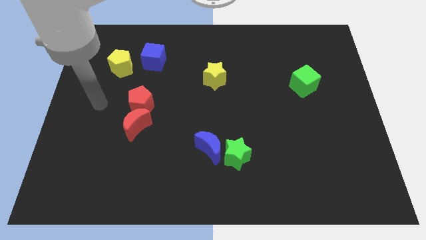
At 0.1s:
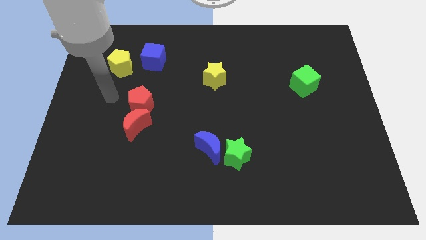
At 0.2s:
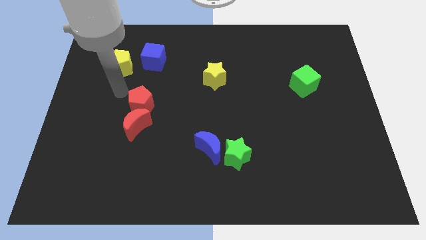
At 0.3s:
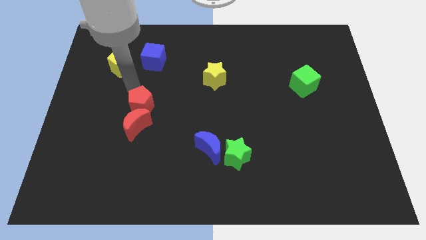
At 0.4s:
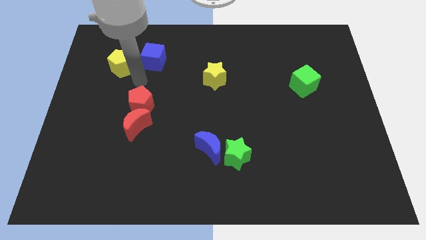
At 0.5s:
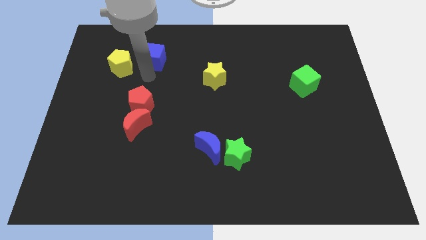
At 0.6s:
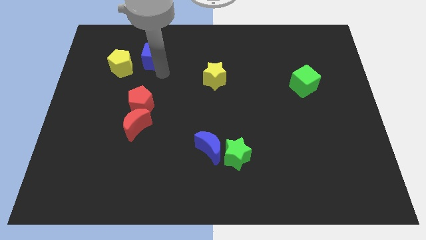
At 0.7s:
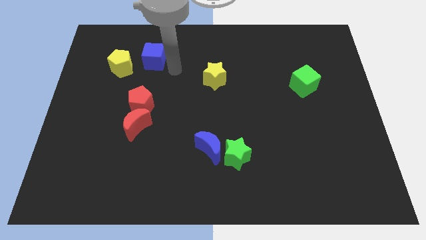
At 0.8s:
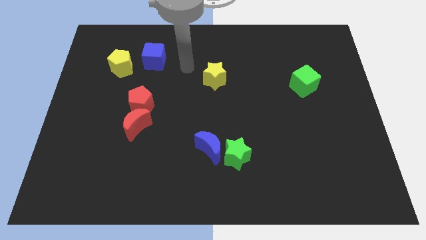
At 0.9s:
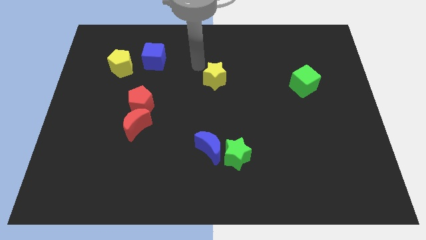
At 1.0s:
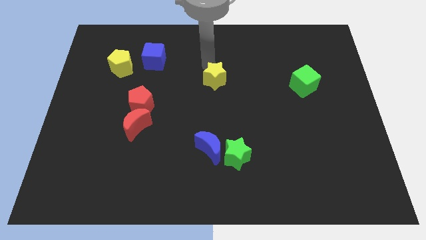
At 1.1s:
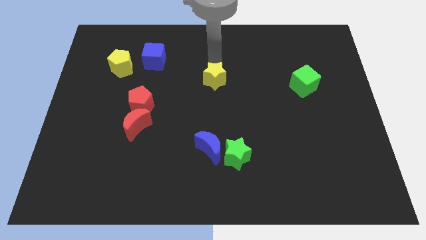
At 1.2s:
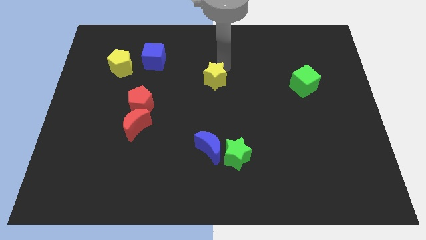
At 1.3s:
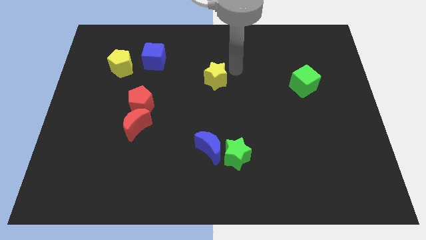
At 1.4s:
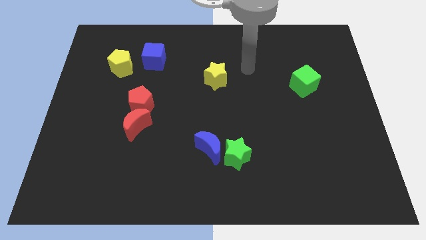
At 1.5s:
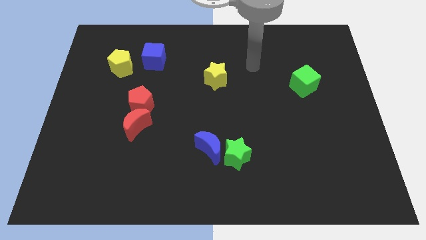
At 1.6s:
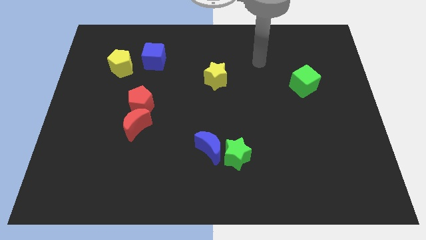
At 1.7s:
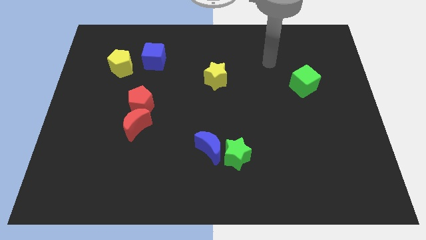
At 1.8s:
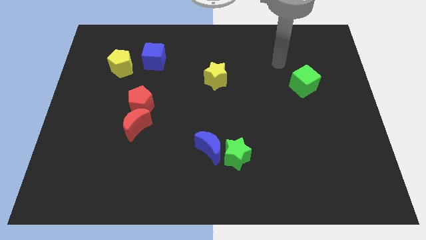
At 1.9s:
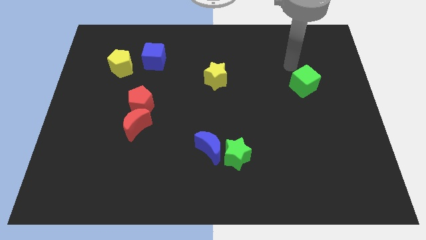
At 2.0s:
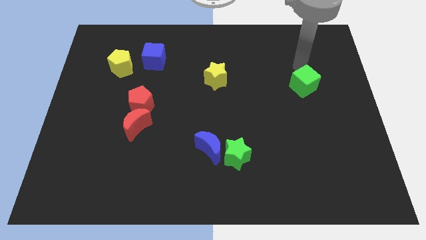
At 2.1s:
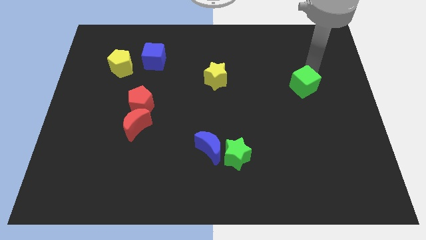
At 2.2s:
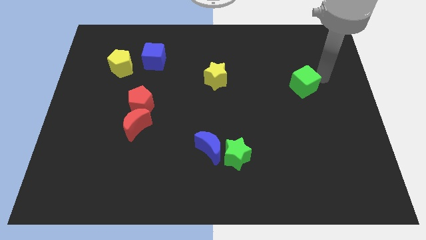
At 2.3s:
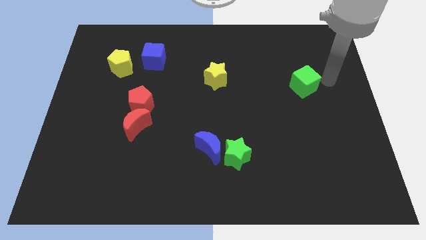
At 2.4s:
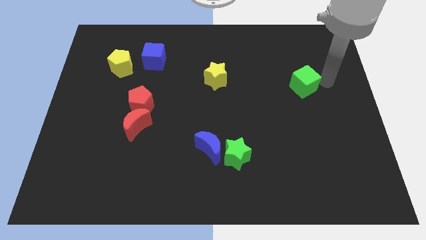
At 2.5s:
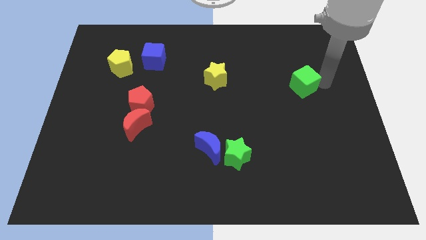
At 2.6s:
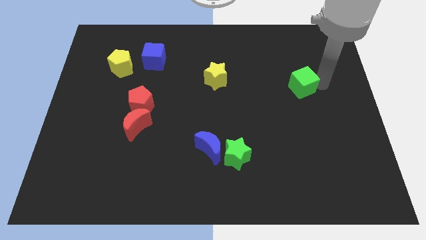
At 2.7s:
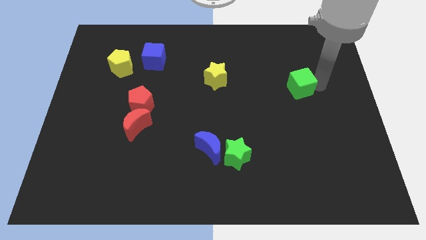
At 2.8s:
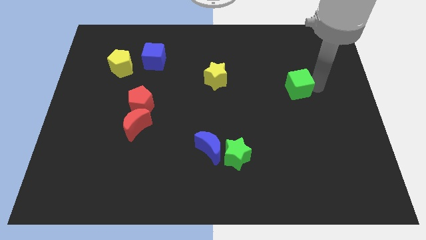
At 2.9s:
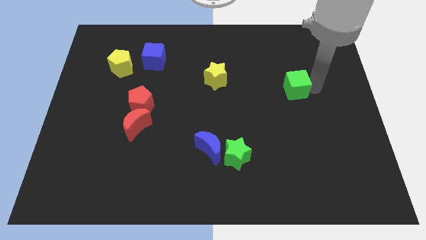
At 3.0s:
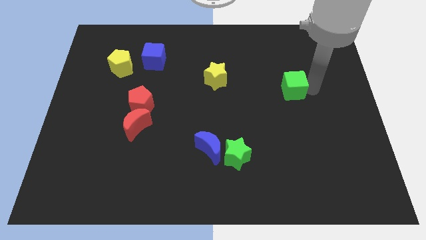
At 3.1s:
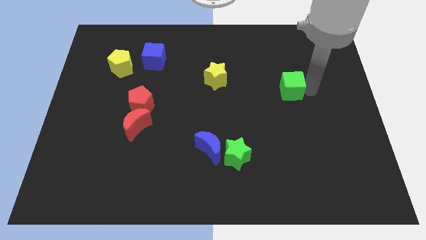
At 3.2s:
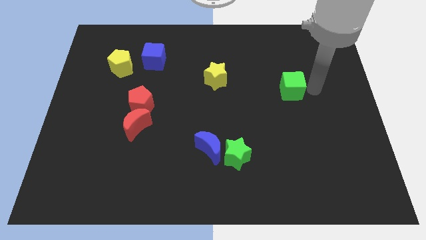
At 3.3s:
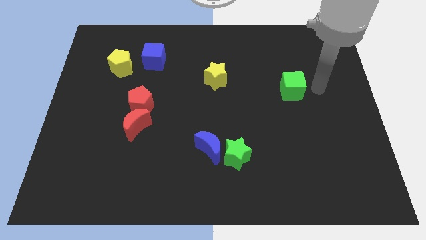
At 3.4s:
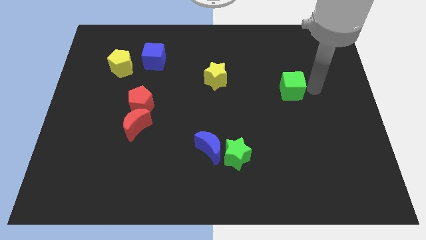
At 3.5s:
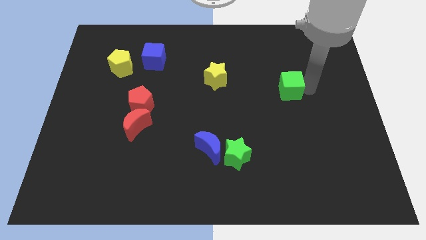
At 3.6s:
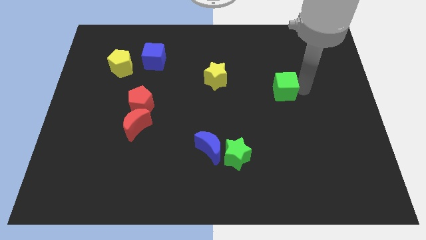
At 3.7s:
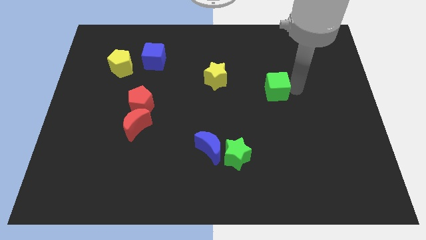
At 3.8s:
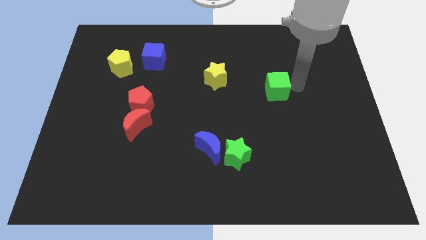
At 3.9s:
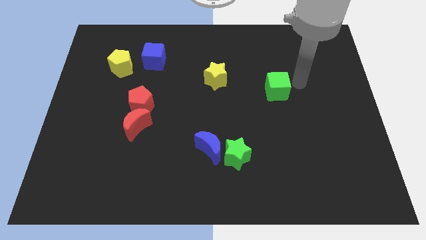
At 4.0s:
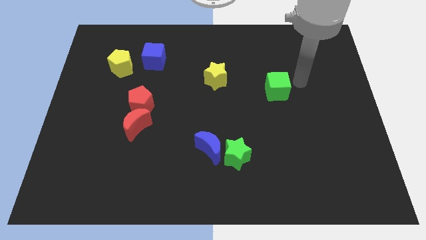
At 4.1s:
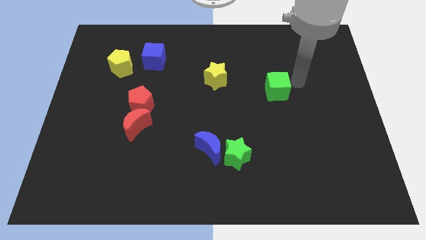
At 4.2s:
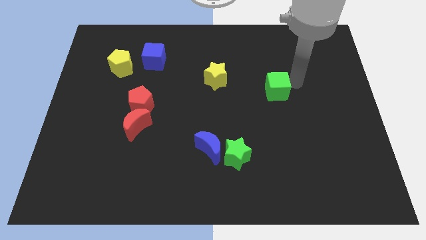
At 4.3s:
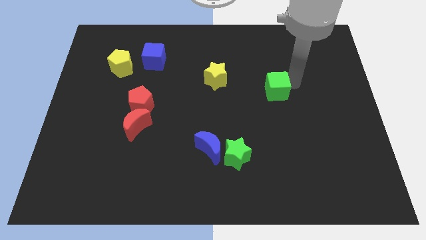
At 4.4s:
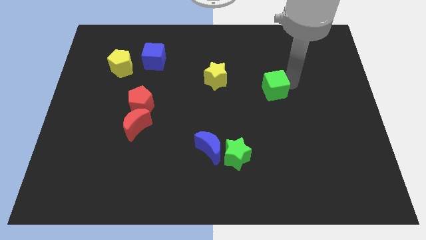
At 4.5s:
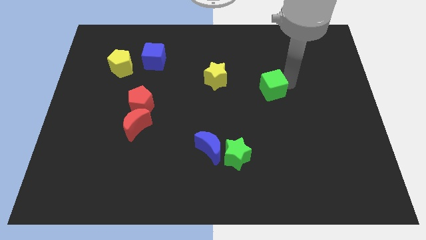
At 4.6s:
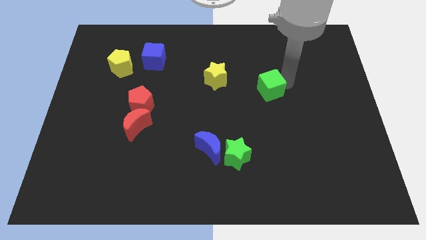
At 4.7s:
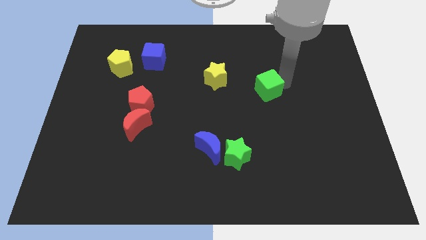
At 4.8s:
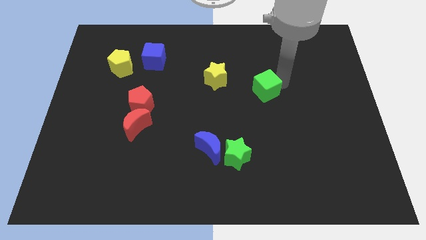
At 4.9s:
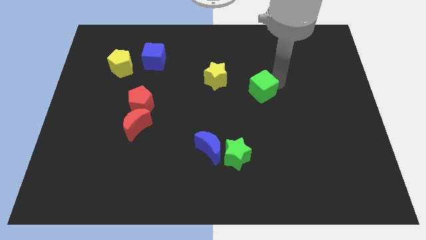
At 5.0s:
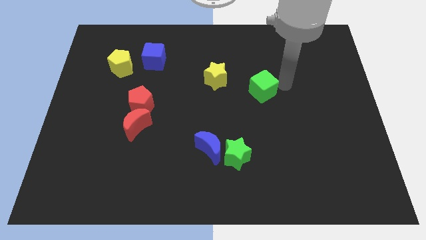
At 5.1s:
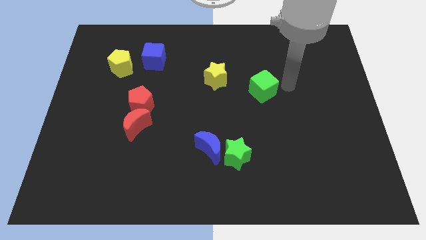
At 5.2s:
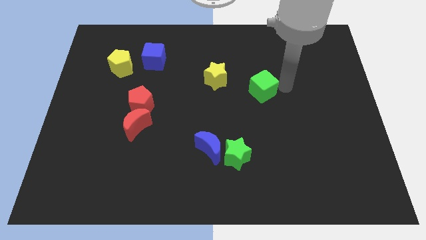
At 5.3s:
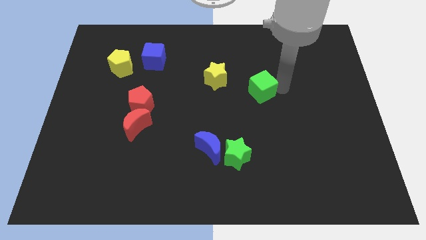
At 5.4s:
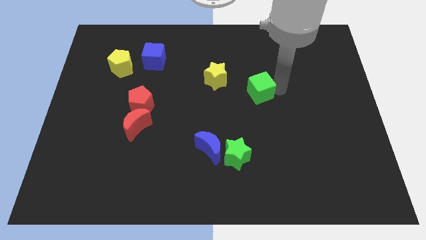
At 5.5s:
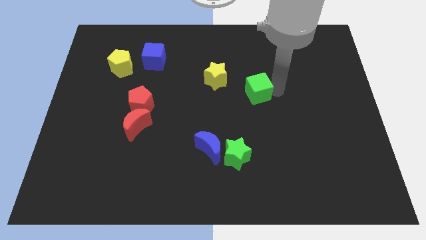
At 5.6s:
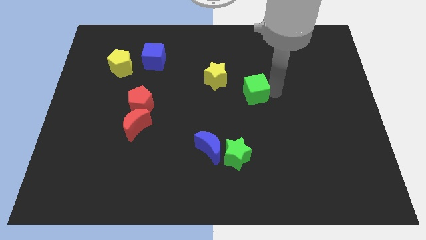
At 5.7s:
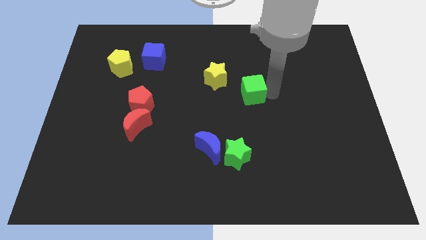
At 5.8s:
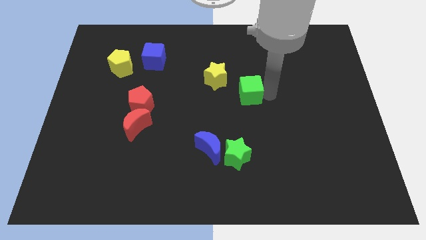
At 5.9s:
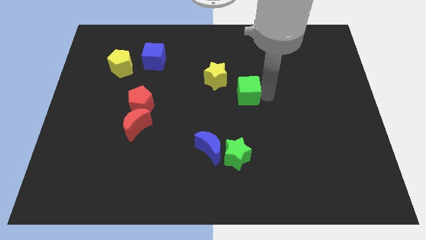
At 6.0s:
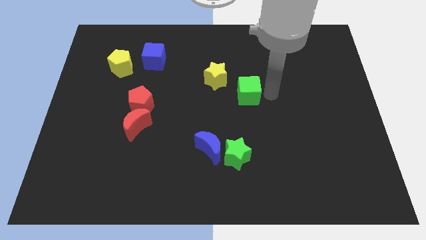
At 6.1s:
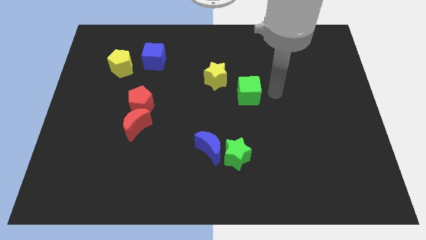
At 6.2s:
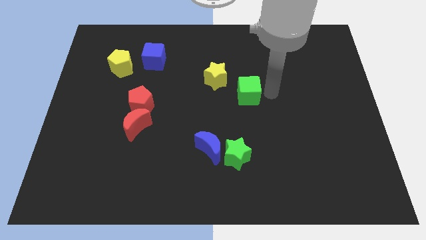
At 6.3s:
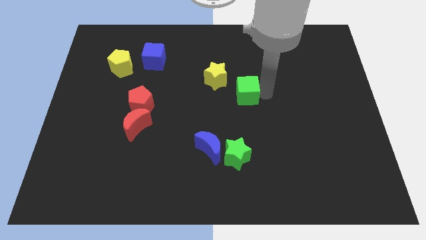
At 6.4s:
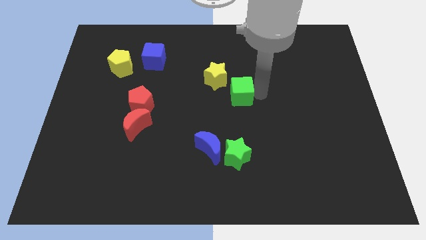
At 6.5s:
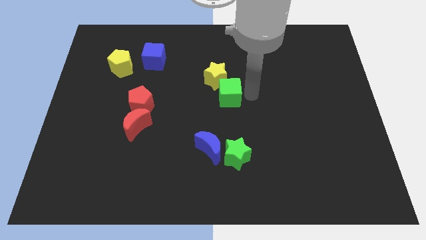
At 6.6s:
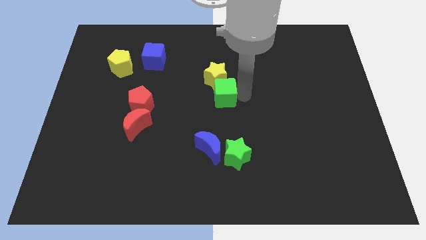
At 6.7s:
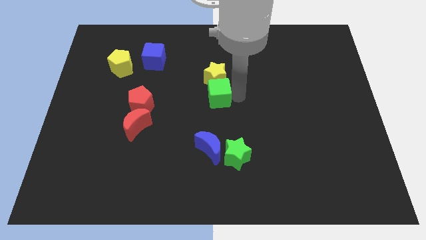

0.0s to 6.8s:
move the green cube left

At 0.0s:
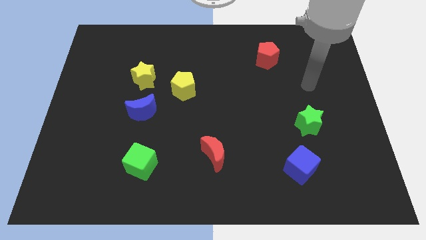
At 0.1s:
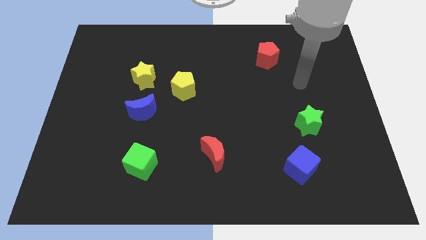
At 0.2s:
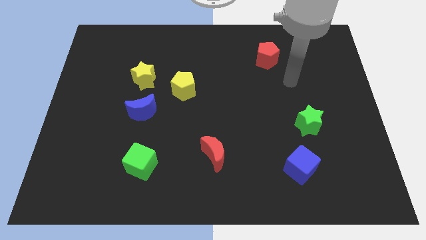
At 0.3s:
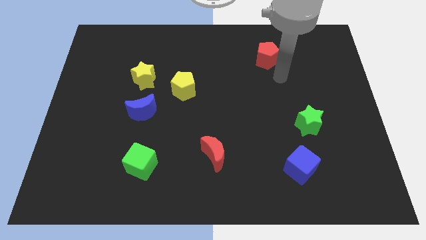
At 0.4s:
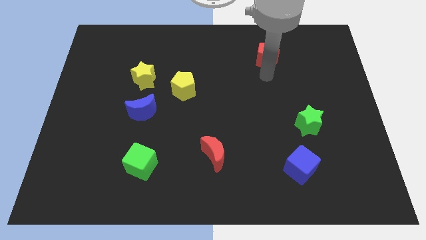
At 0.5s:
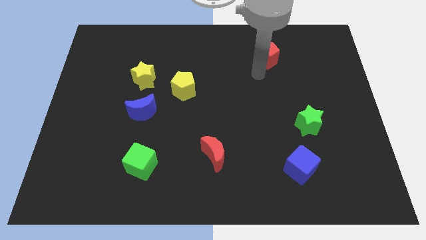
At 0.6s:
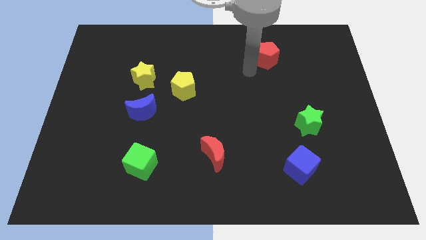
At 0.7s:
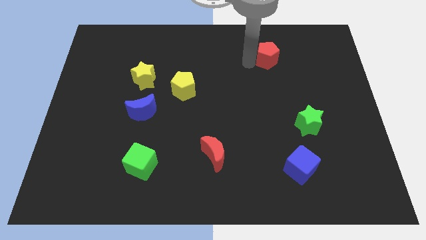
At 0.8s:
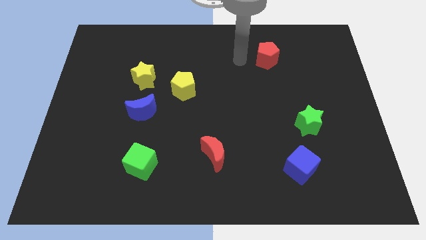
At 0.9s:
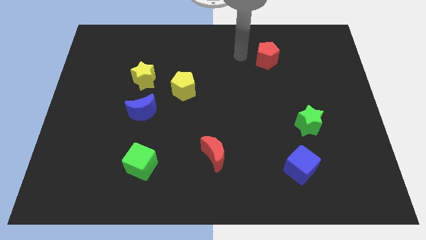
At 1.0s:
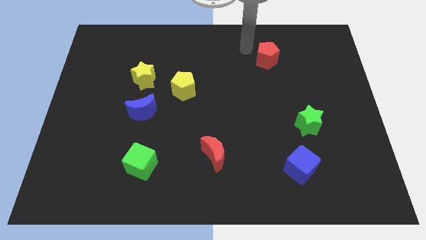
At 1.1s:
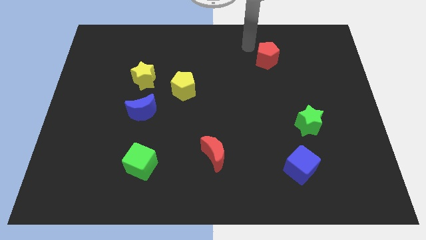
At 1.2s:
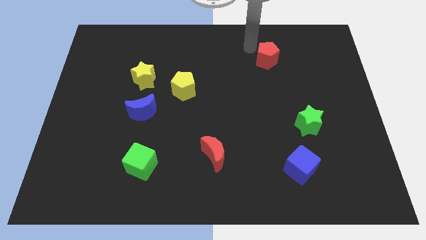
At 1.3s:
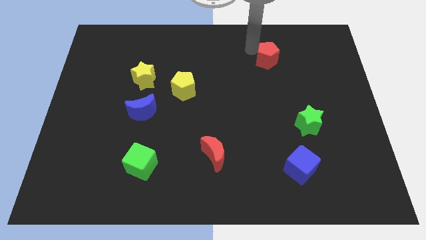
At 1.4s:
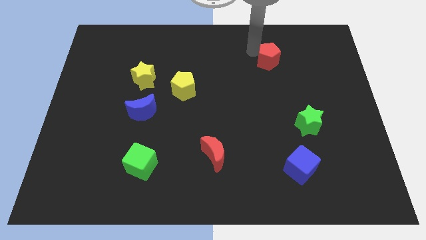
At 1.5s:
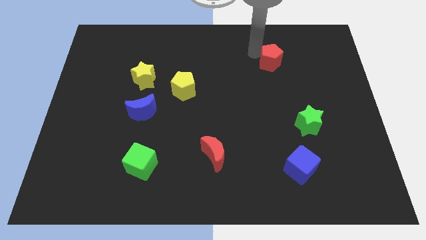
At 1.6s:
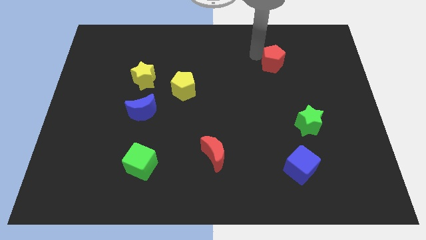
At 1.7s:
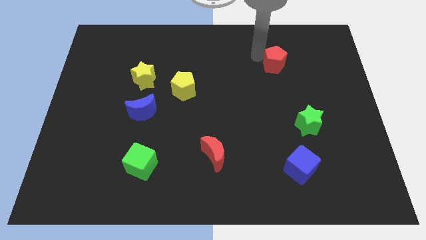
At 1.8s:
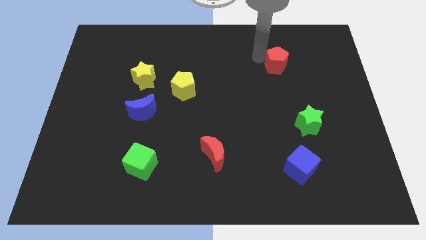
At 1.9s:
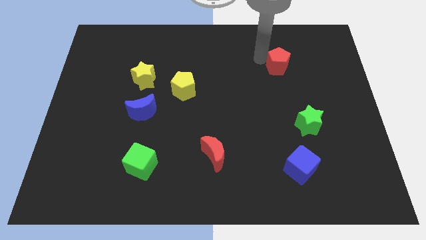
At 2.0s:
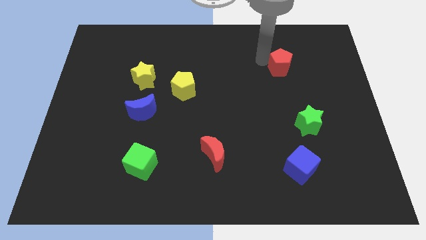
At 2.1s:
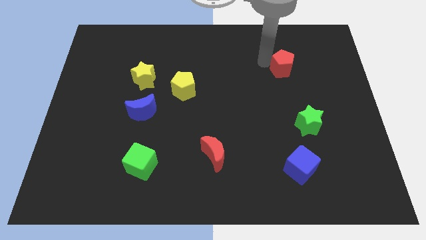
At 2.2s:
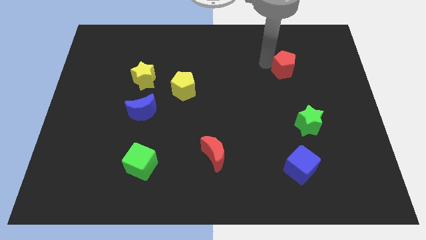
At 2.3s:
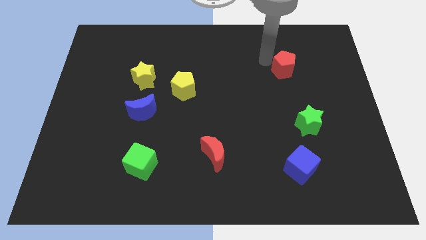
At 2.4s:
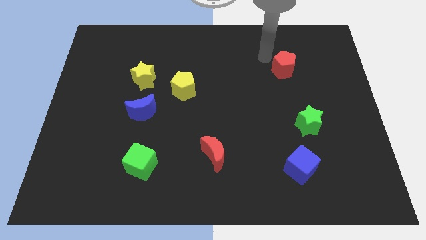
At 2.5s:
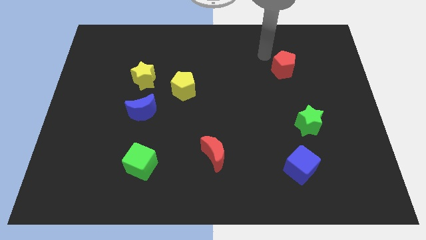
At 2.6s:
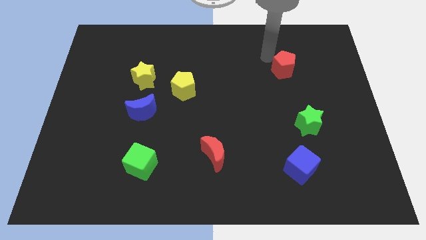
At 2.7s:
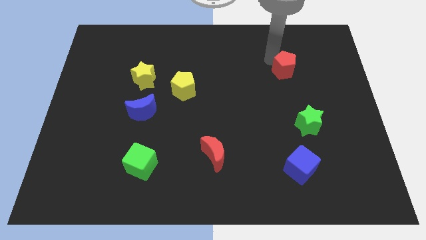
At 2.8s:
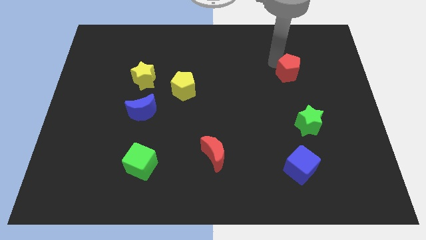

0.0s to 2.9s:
slightly push the red pentagon down and right diagonally
